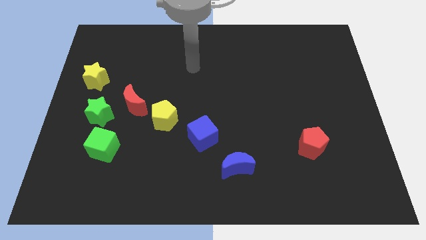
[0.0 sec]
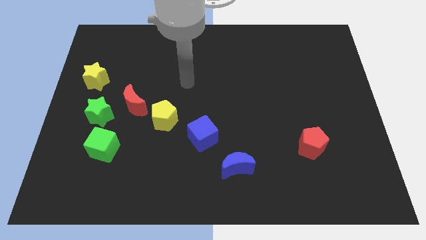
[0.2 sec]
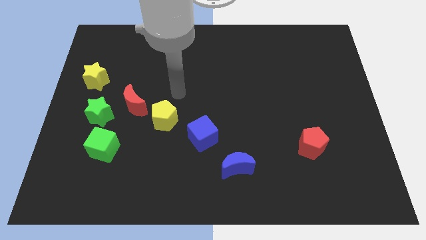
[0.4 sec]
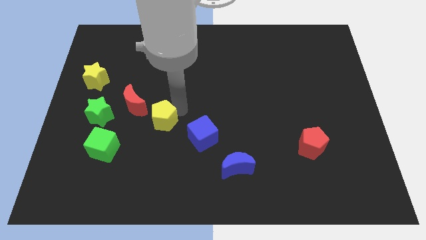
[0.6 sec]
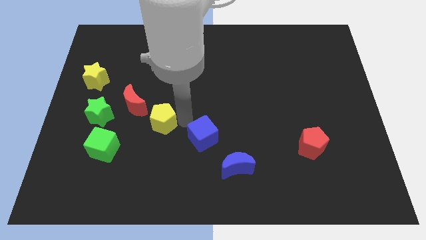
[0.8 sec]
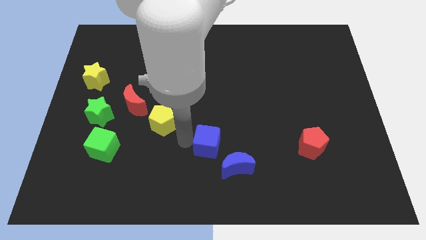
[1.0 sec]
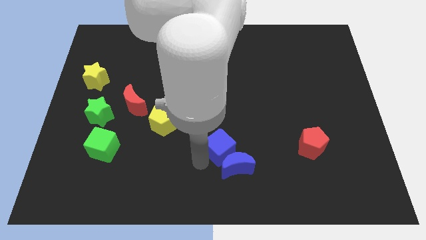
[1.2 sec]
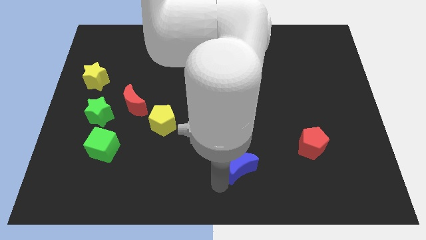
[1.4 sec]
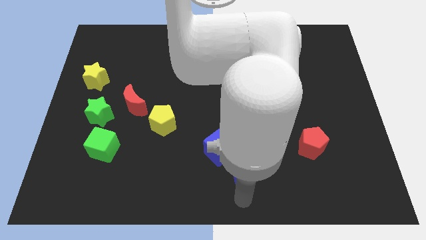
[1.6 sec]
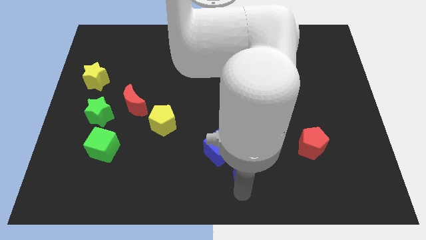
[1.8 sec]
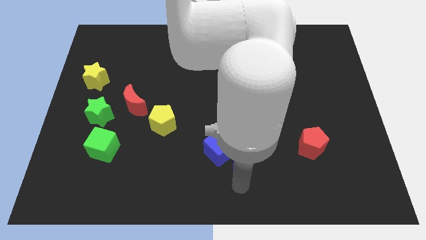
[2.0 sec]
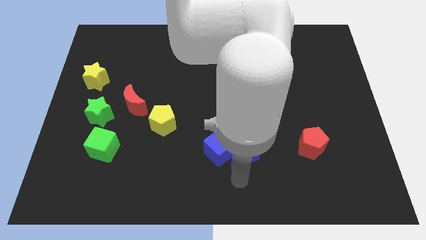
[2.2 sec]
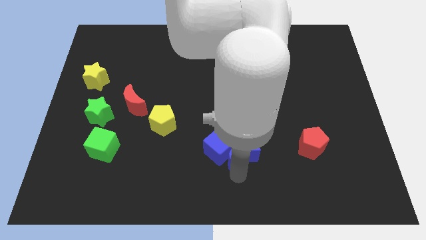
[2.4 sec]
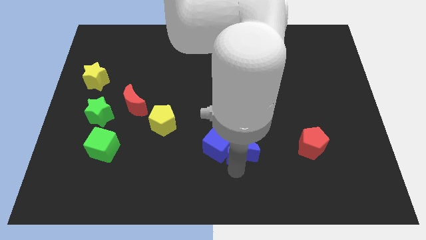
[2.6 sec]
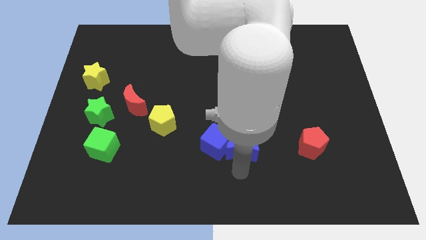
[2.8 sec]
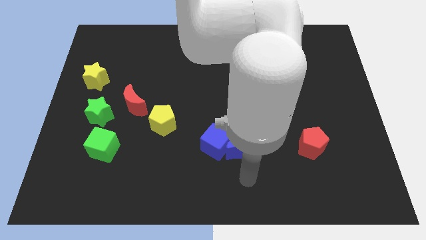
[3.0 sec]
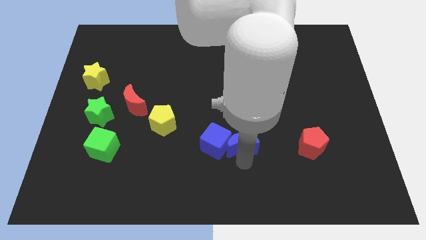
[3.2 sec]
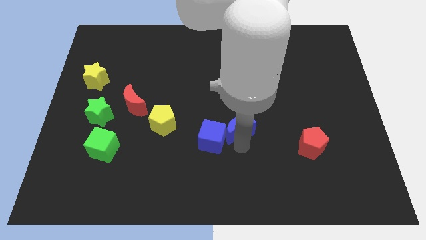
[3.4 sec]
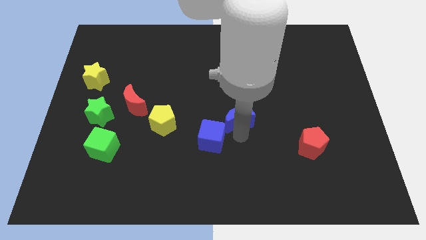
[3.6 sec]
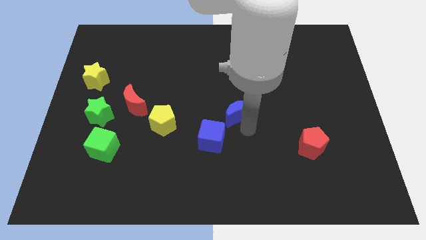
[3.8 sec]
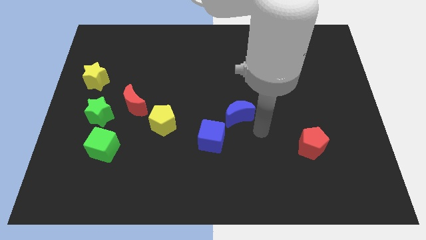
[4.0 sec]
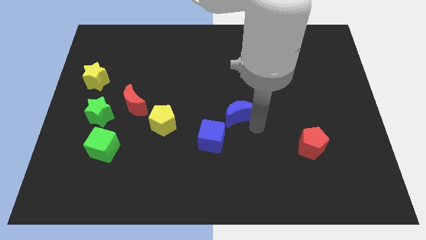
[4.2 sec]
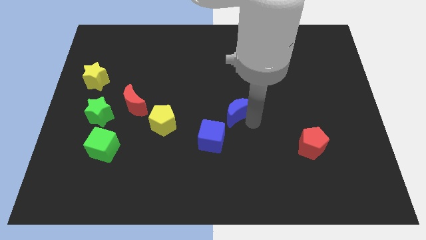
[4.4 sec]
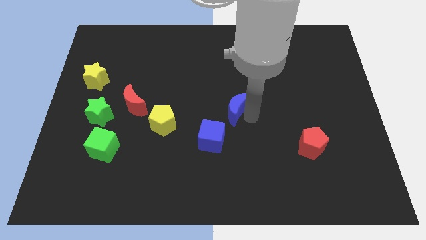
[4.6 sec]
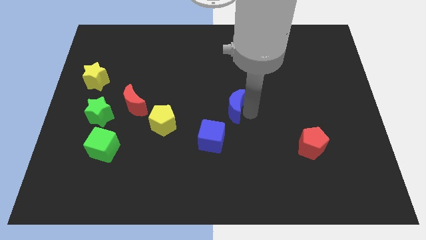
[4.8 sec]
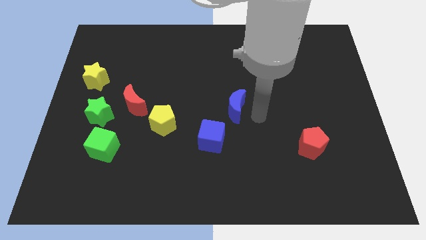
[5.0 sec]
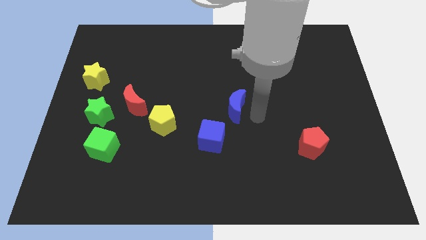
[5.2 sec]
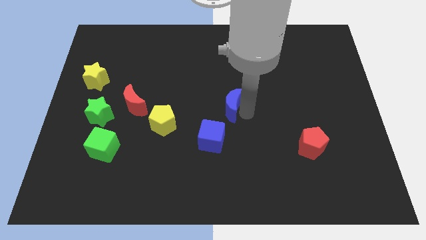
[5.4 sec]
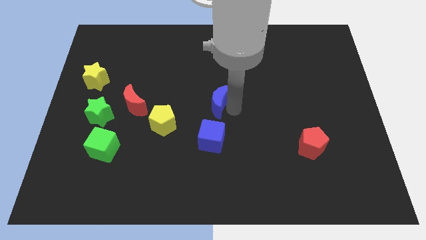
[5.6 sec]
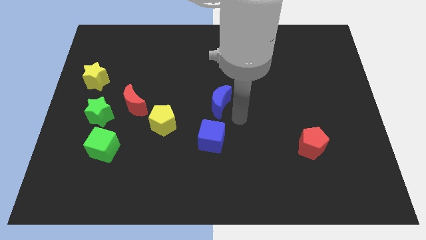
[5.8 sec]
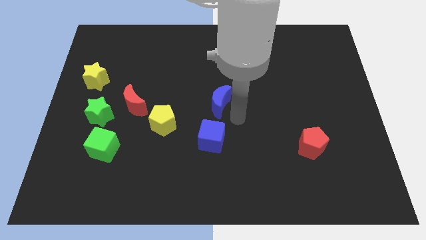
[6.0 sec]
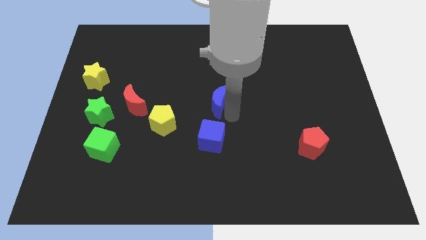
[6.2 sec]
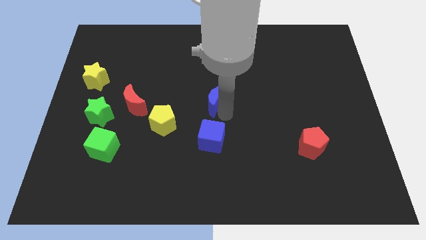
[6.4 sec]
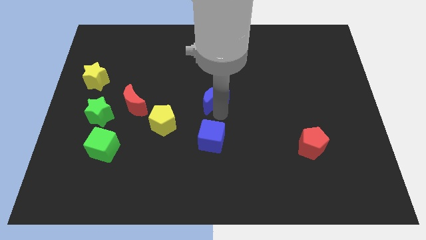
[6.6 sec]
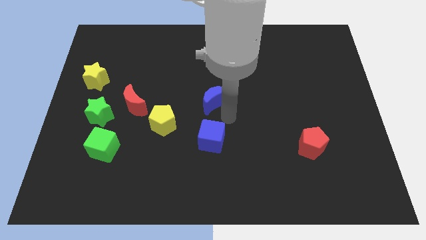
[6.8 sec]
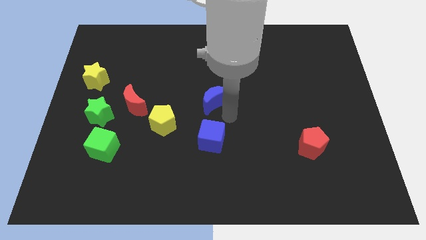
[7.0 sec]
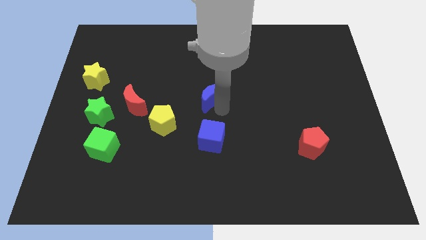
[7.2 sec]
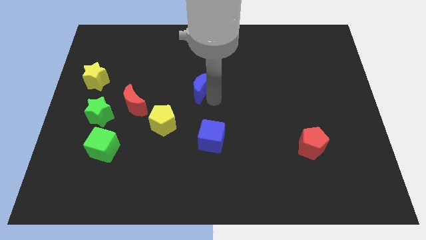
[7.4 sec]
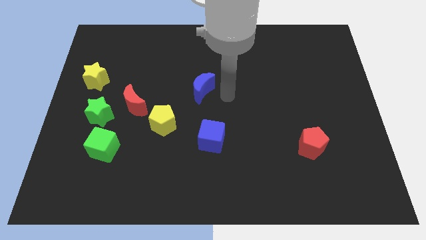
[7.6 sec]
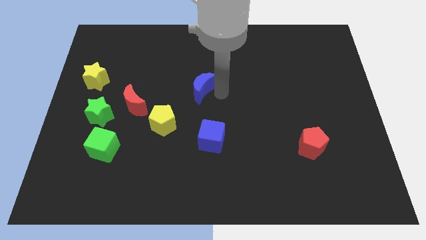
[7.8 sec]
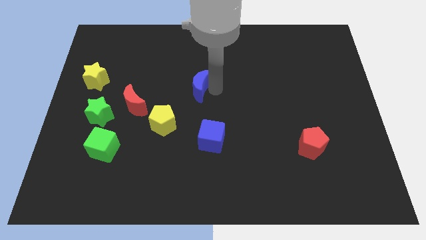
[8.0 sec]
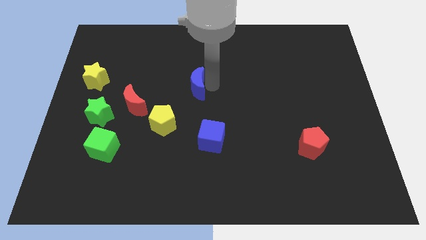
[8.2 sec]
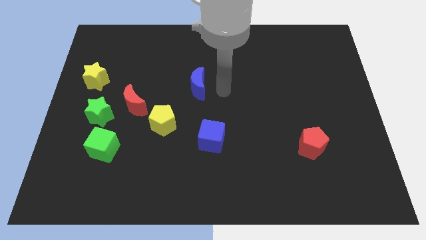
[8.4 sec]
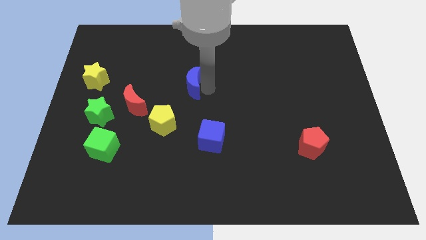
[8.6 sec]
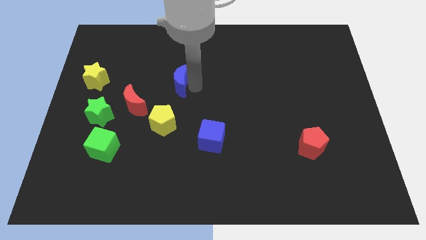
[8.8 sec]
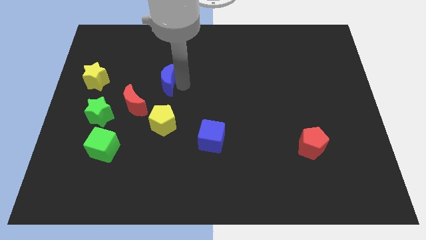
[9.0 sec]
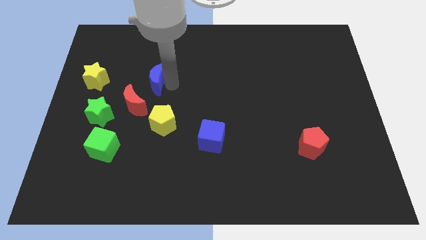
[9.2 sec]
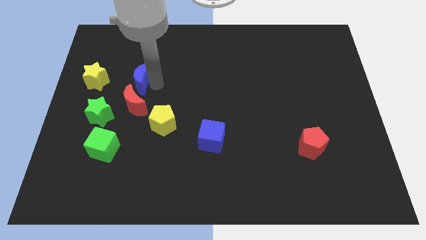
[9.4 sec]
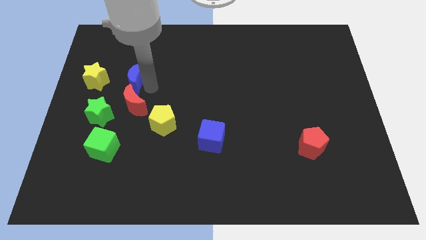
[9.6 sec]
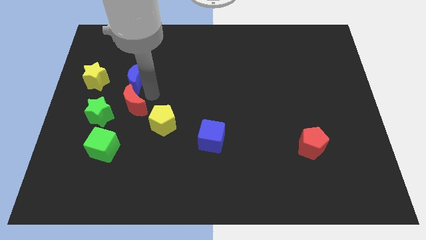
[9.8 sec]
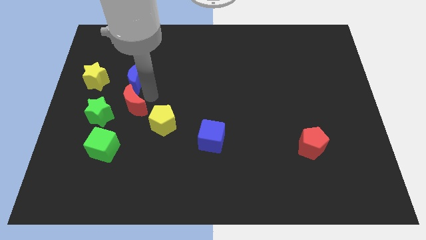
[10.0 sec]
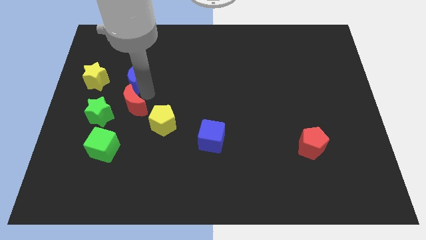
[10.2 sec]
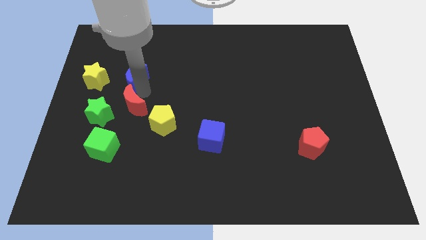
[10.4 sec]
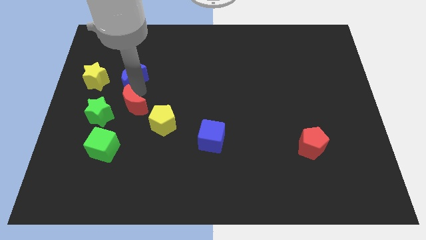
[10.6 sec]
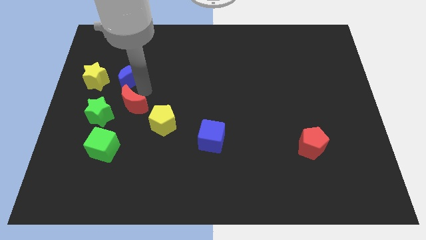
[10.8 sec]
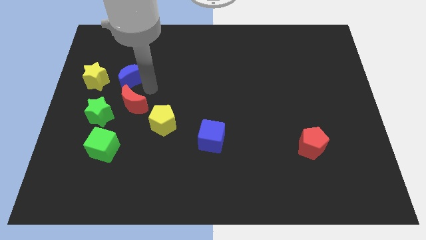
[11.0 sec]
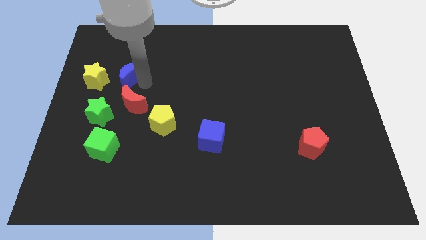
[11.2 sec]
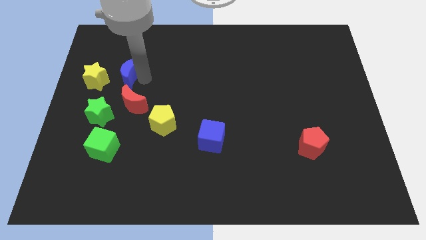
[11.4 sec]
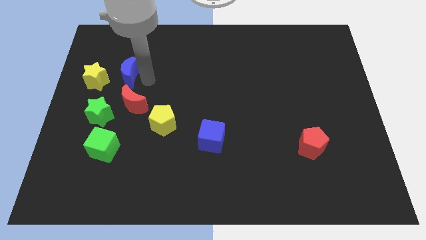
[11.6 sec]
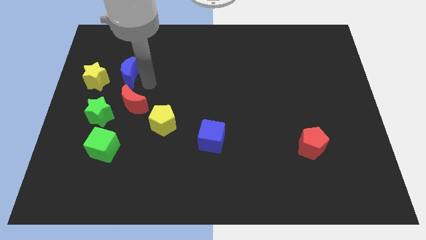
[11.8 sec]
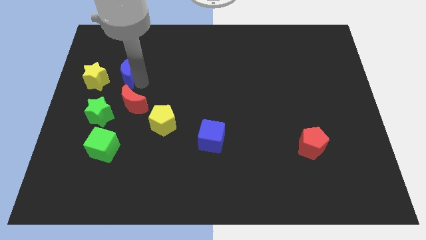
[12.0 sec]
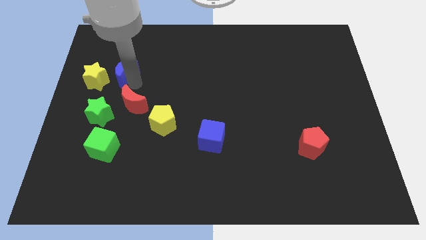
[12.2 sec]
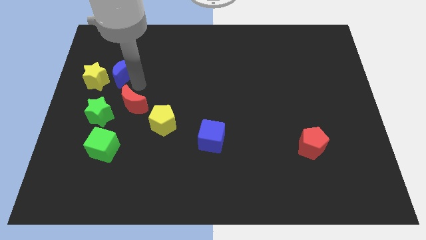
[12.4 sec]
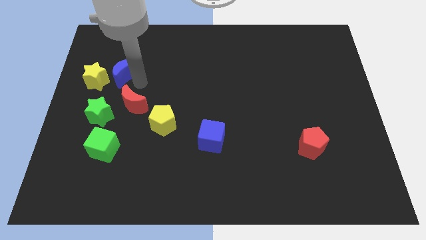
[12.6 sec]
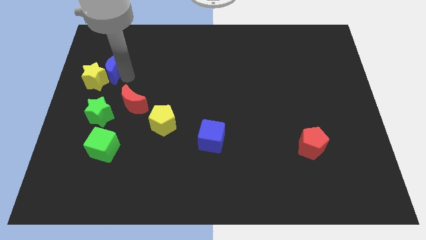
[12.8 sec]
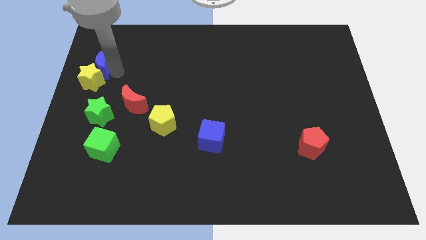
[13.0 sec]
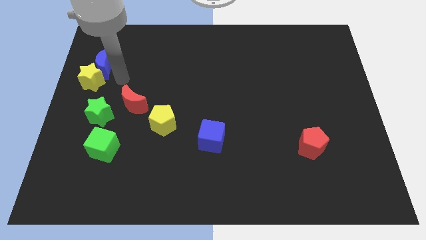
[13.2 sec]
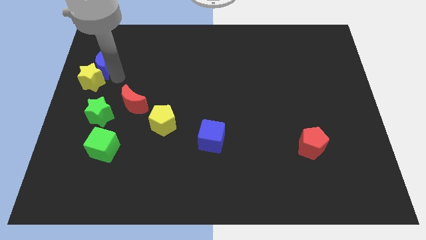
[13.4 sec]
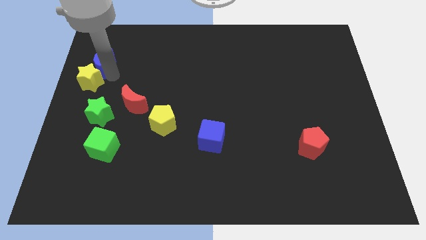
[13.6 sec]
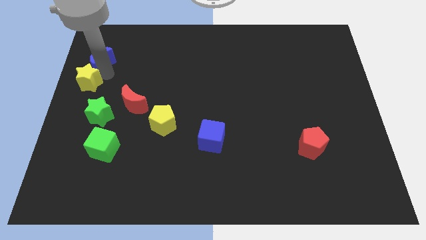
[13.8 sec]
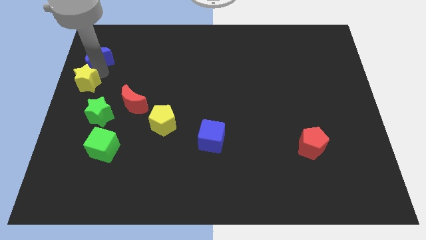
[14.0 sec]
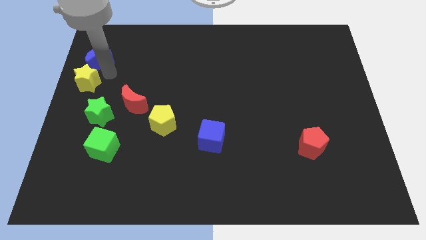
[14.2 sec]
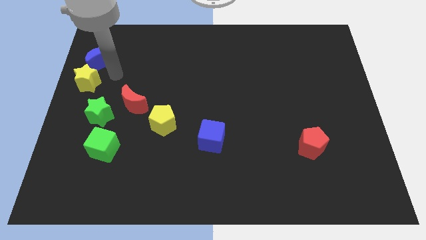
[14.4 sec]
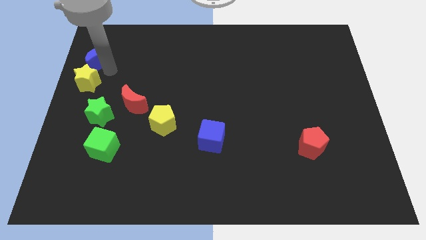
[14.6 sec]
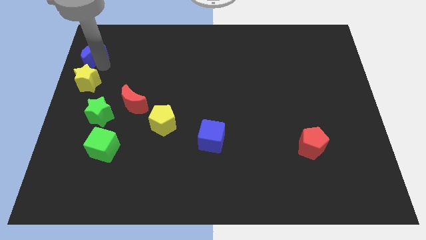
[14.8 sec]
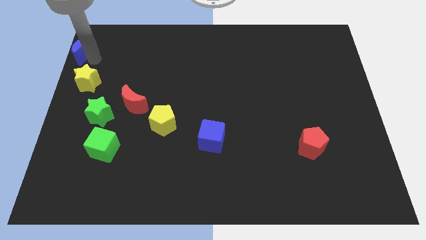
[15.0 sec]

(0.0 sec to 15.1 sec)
push the blue moon to the top left corner
